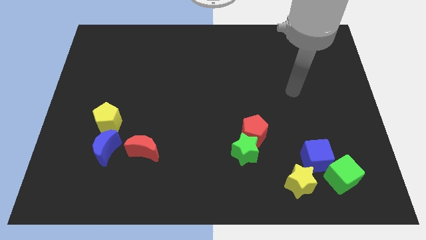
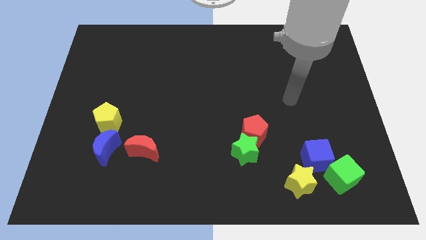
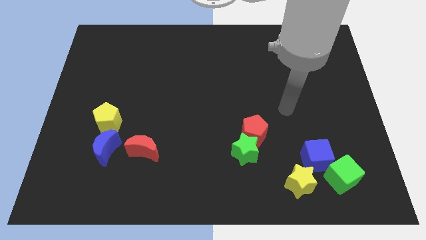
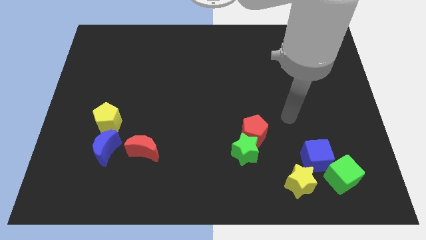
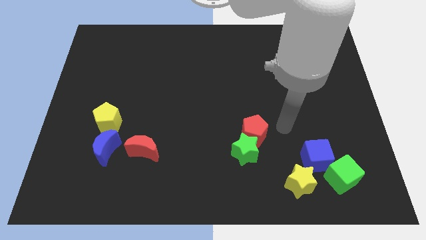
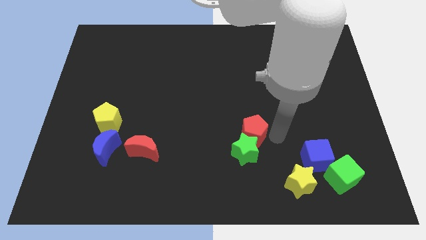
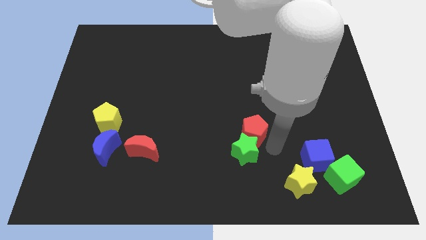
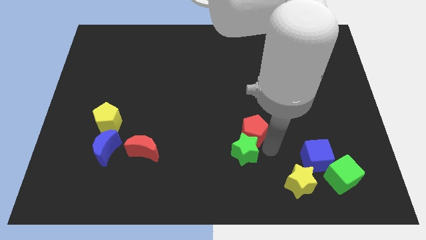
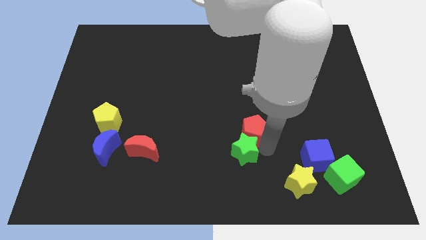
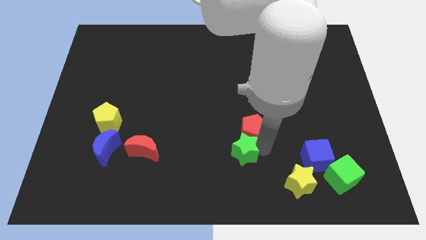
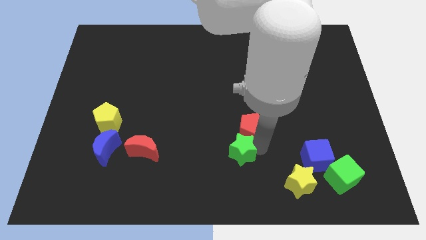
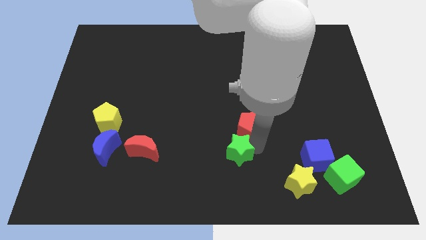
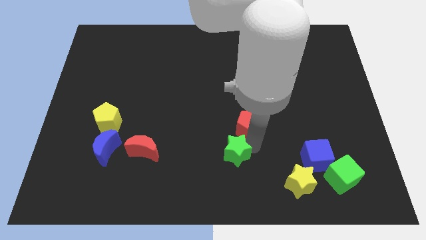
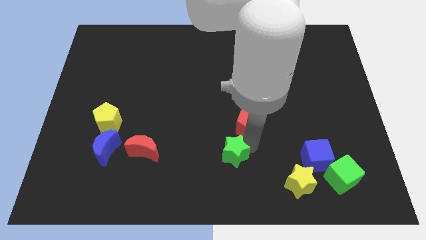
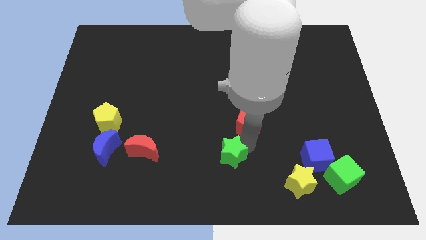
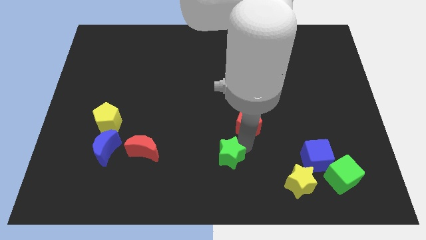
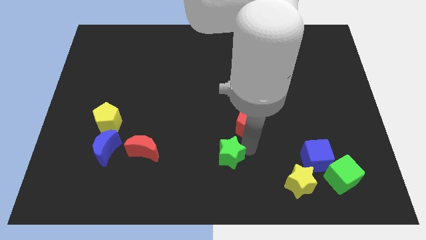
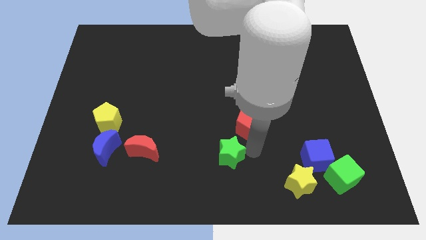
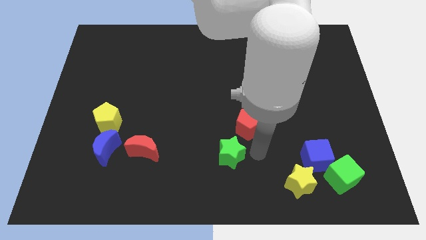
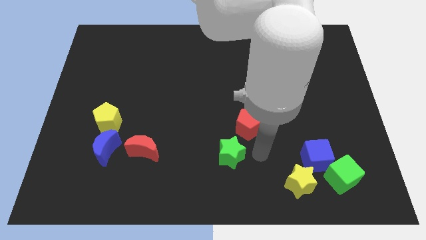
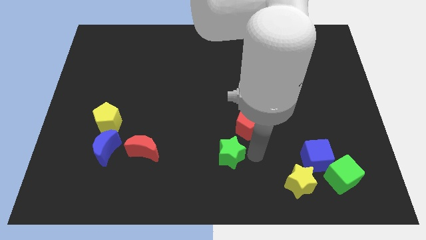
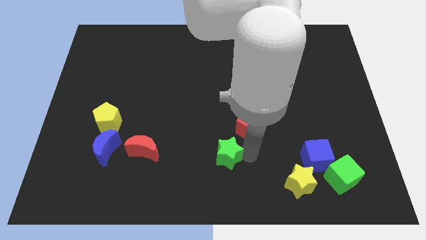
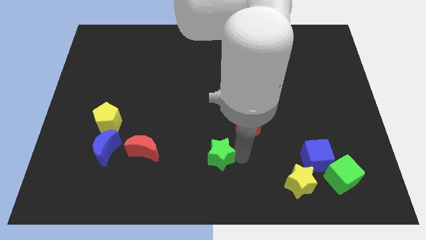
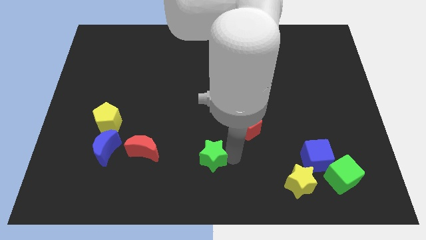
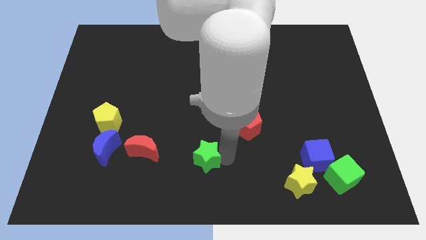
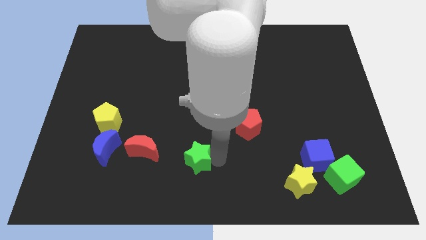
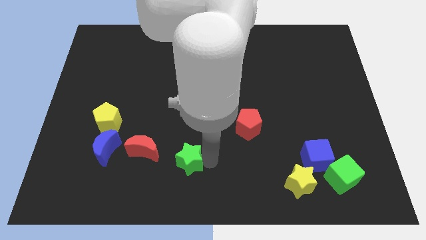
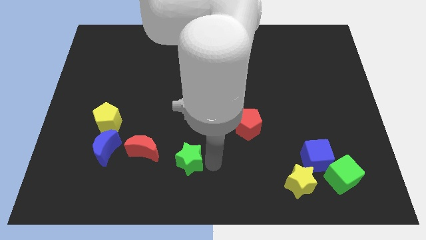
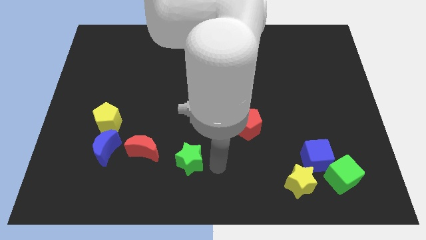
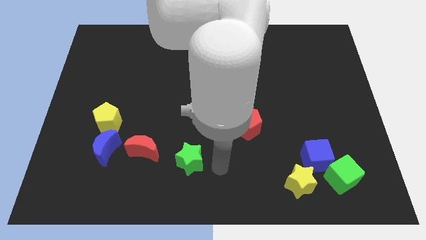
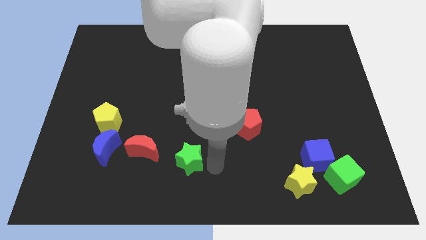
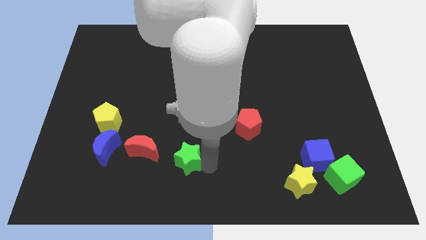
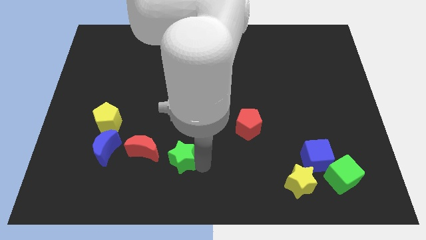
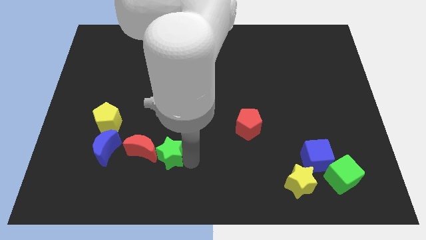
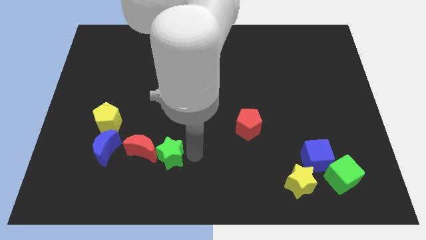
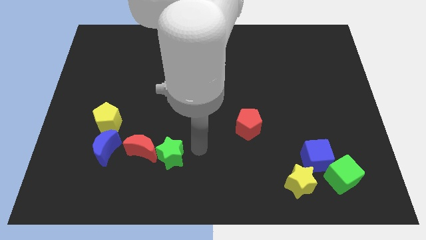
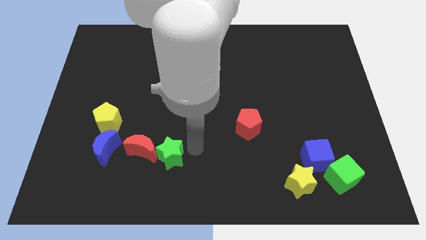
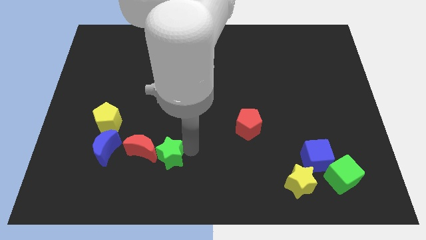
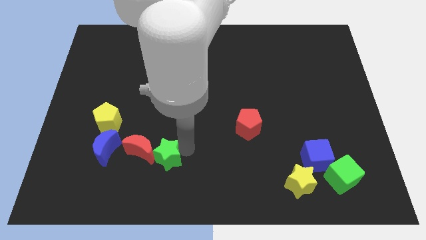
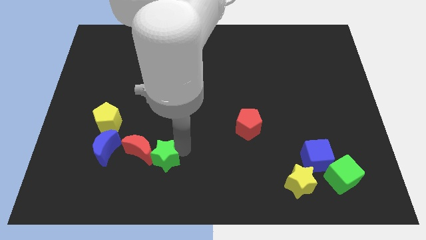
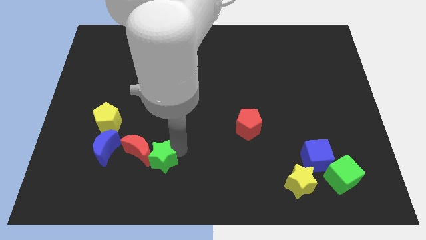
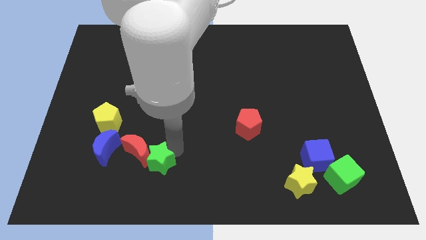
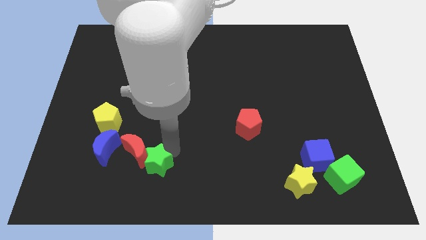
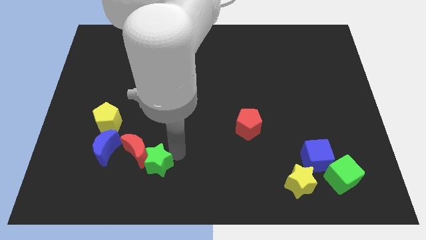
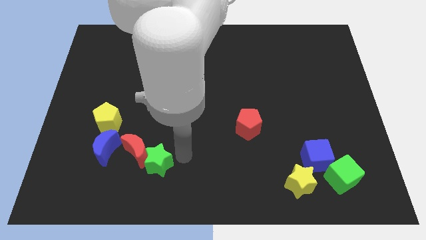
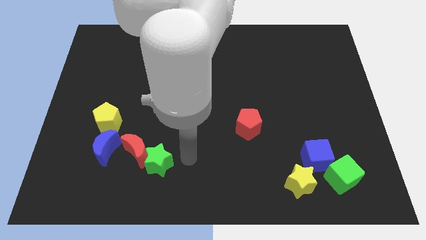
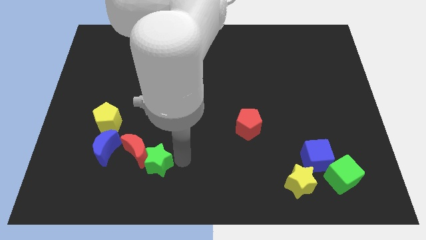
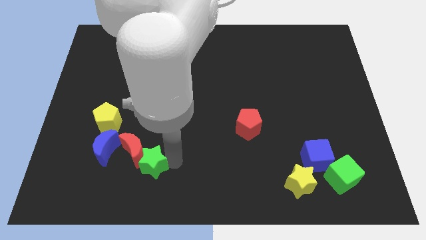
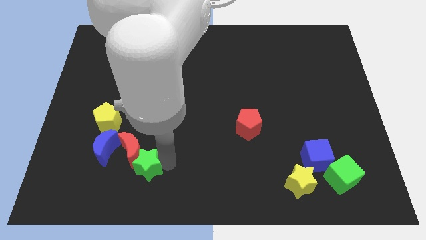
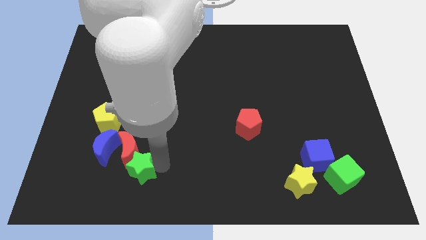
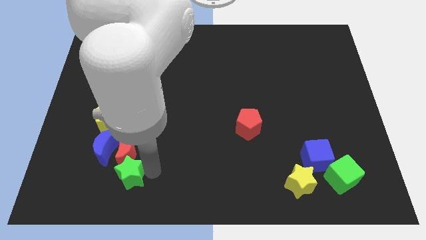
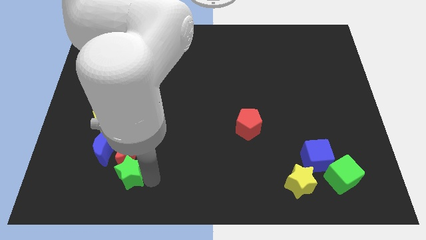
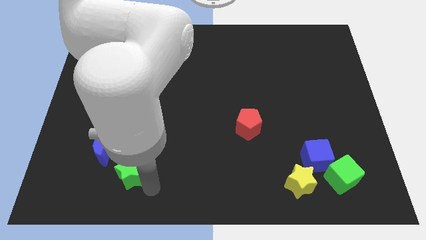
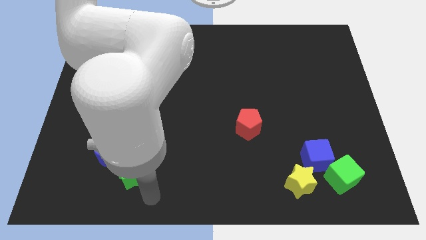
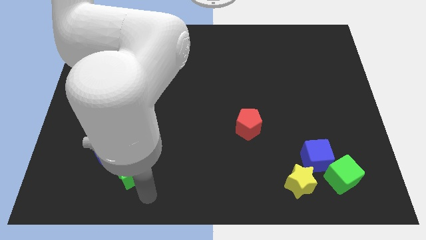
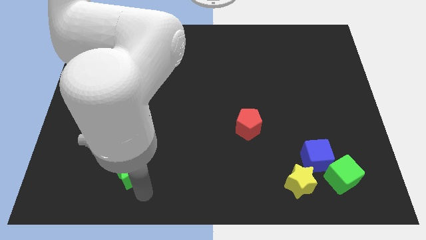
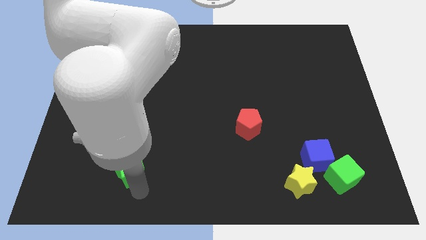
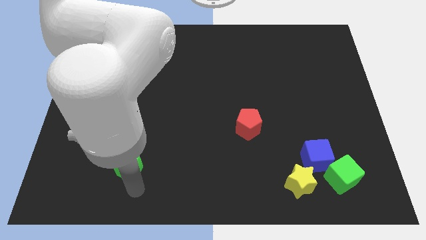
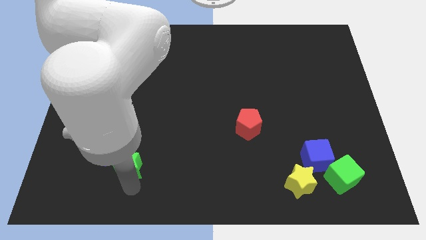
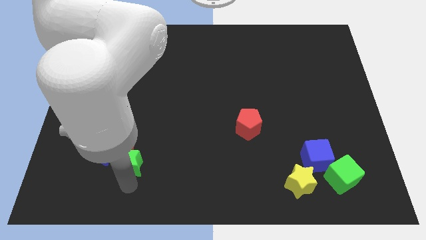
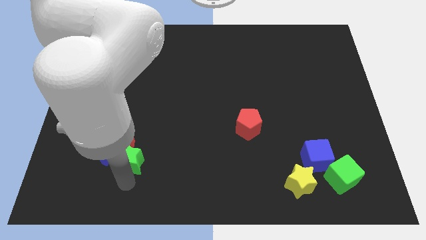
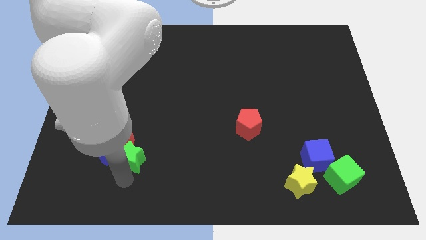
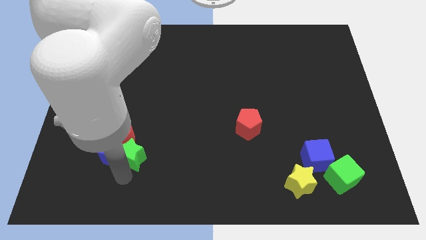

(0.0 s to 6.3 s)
put the green star next to the blue moon
